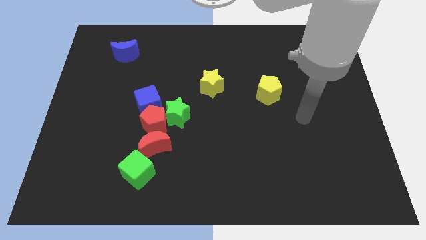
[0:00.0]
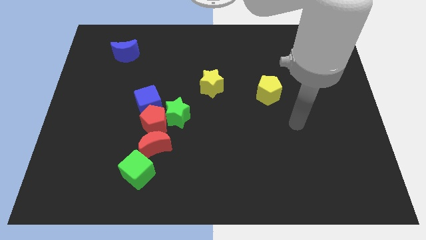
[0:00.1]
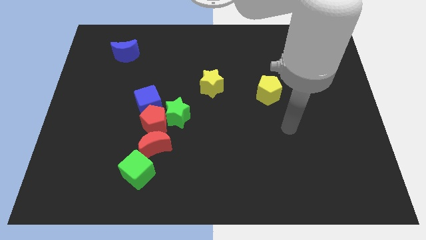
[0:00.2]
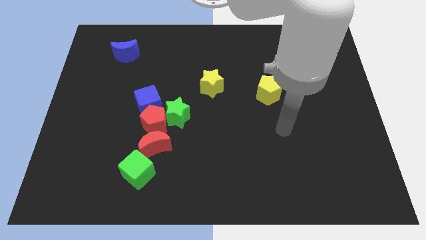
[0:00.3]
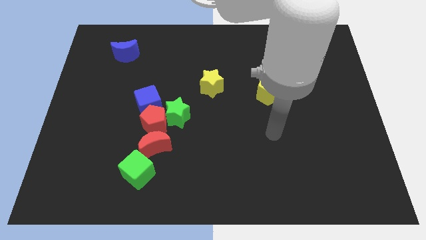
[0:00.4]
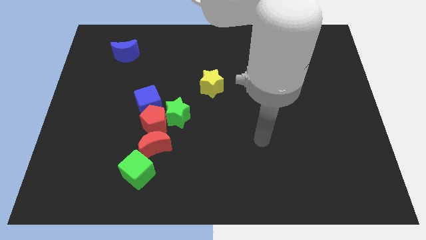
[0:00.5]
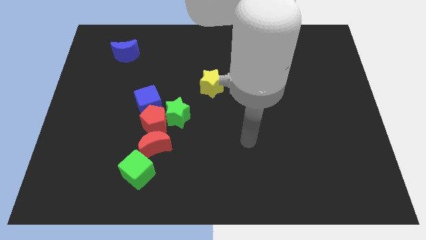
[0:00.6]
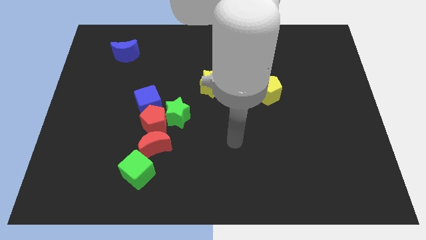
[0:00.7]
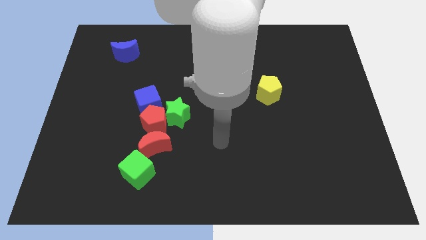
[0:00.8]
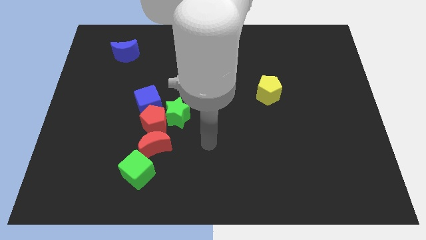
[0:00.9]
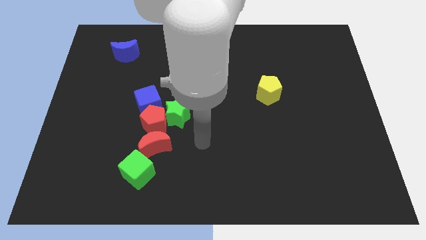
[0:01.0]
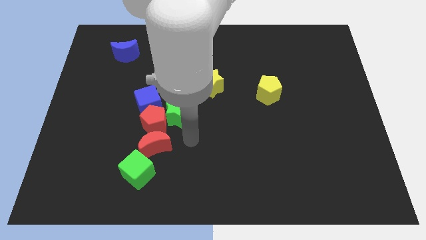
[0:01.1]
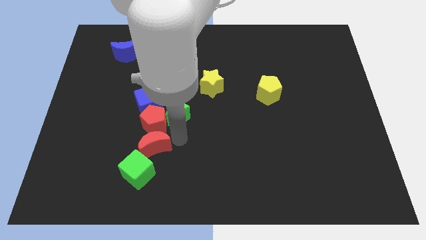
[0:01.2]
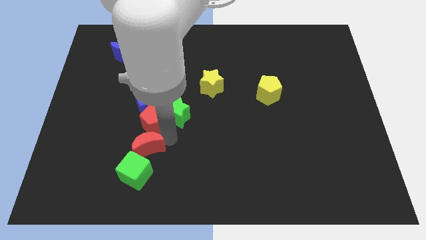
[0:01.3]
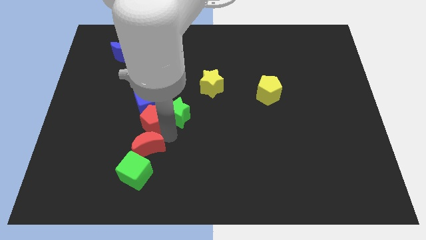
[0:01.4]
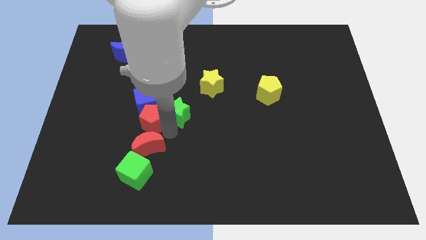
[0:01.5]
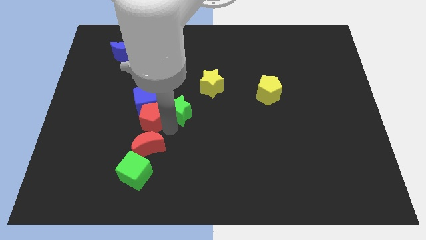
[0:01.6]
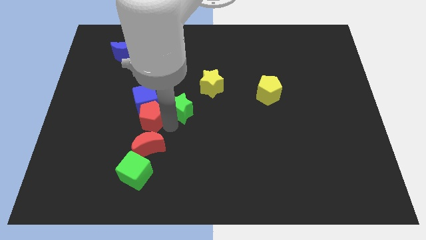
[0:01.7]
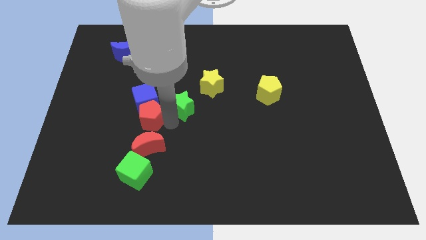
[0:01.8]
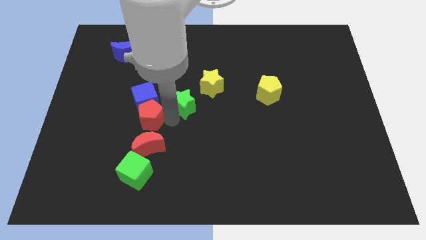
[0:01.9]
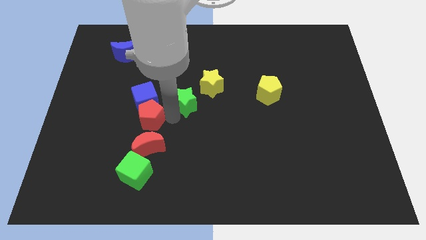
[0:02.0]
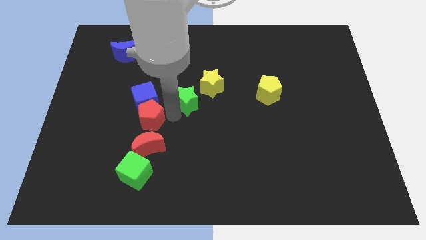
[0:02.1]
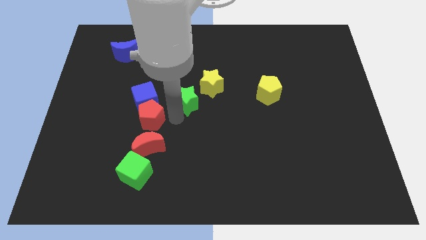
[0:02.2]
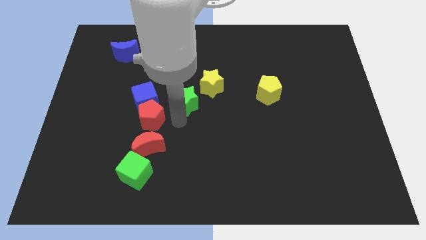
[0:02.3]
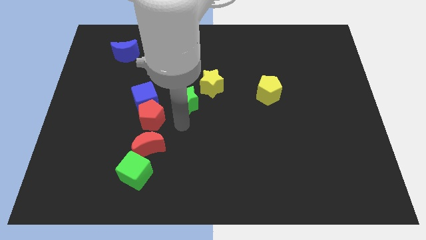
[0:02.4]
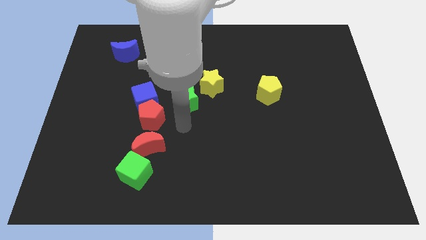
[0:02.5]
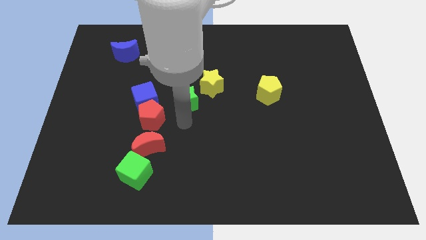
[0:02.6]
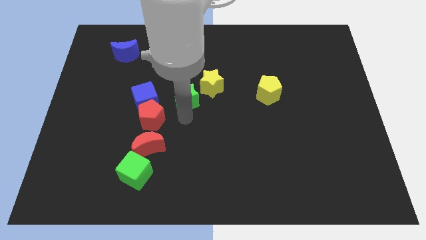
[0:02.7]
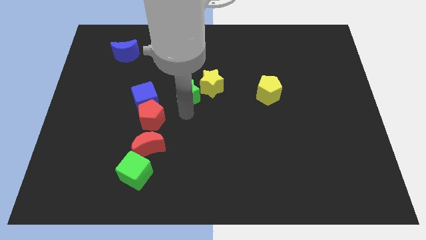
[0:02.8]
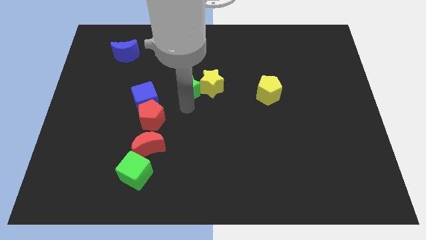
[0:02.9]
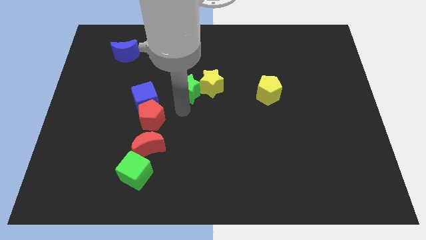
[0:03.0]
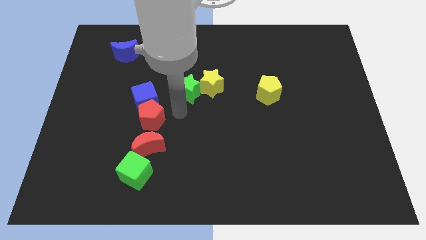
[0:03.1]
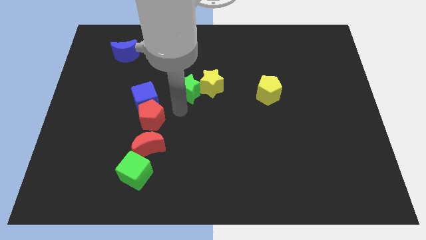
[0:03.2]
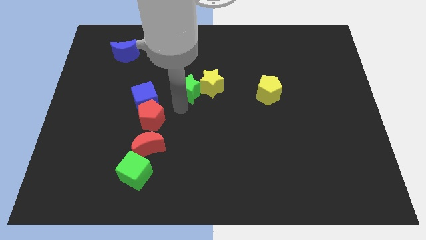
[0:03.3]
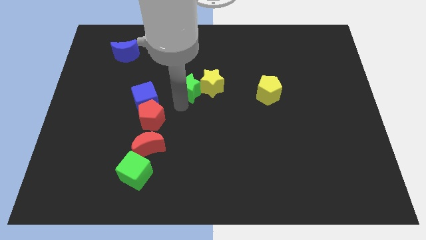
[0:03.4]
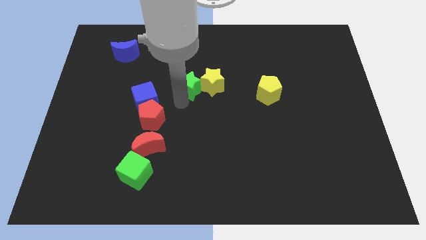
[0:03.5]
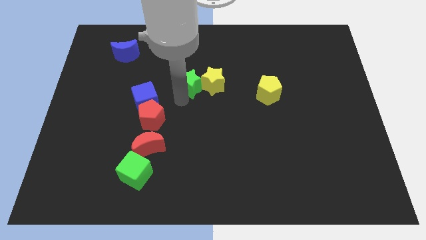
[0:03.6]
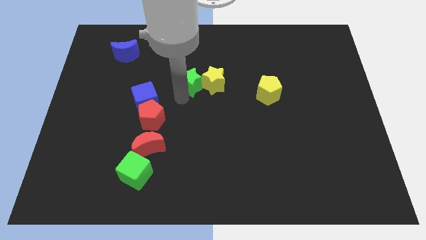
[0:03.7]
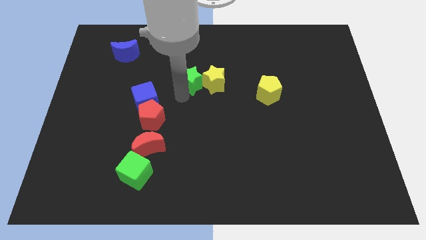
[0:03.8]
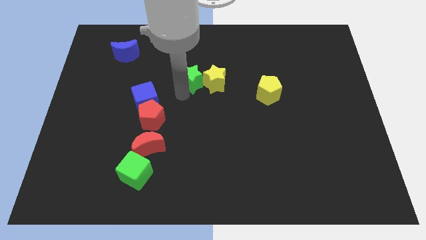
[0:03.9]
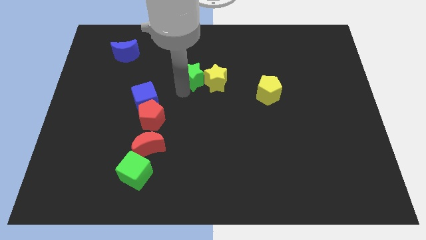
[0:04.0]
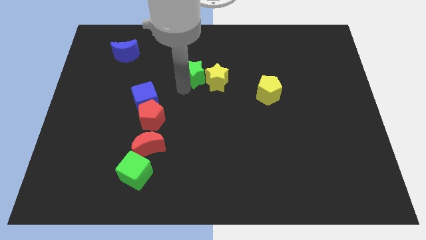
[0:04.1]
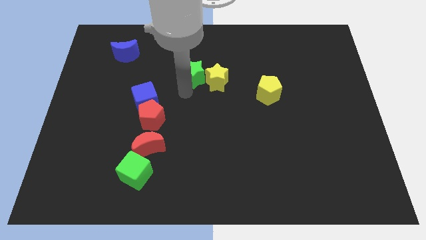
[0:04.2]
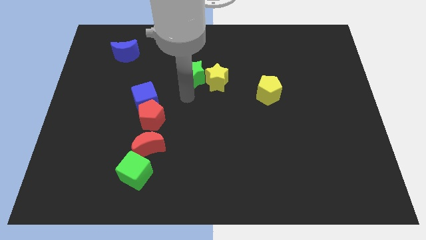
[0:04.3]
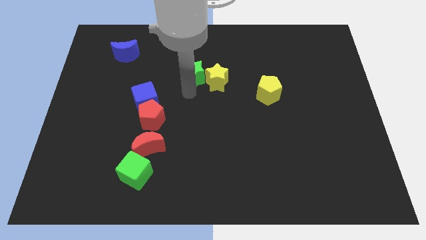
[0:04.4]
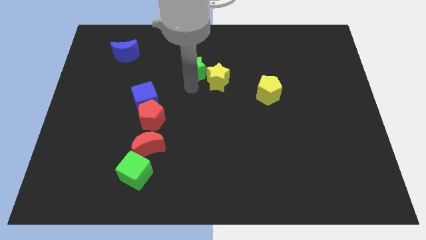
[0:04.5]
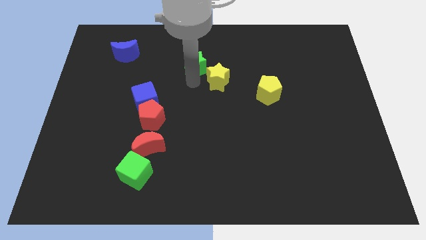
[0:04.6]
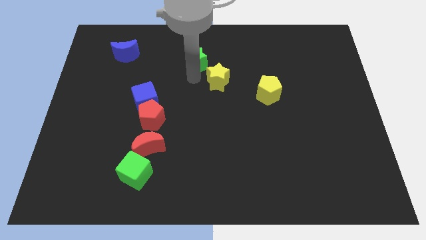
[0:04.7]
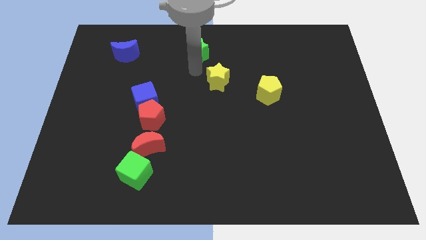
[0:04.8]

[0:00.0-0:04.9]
put the green star to the top side

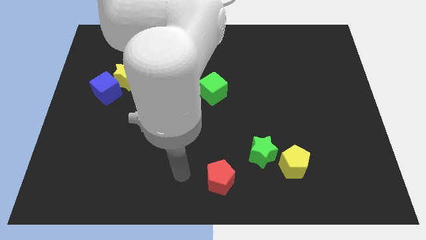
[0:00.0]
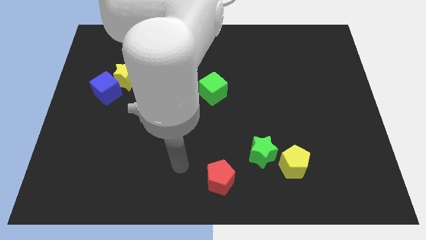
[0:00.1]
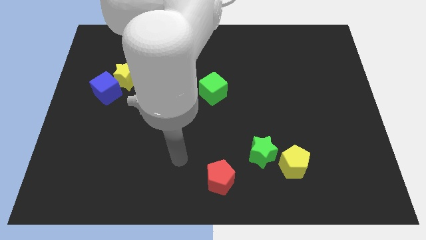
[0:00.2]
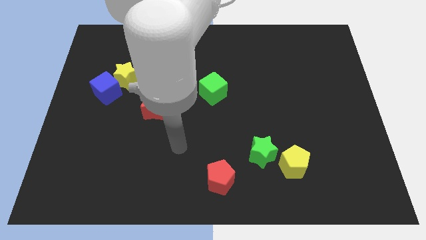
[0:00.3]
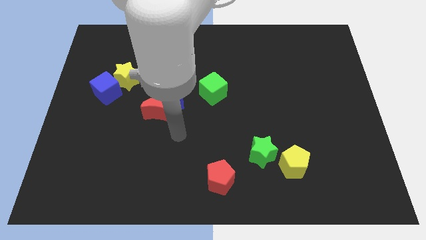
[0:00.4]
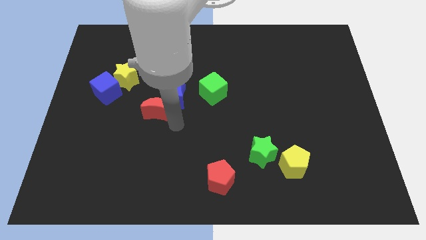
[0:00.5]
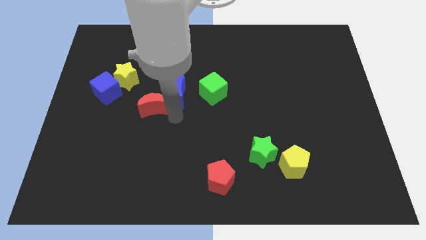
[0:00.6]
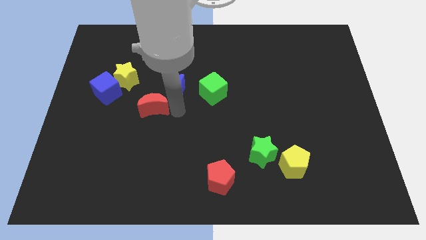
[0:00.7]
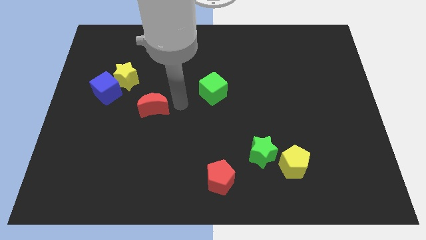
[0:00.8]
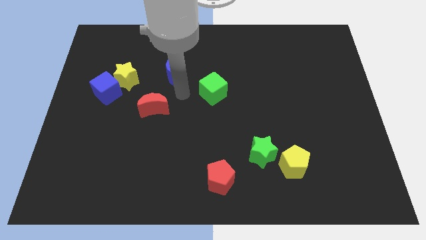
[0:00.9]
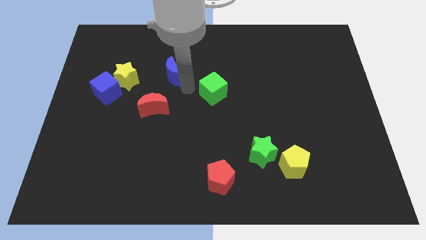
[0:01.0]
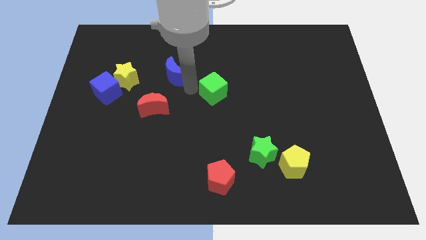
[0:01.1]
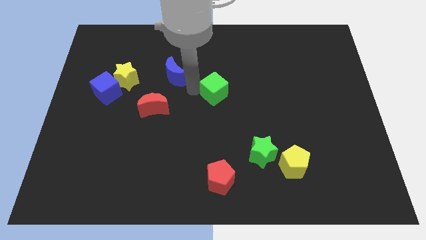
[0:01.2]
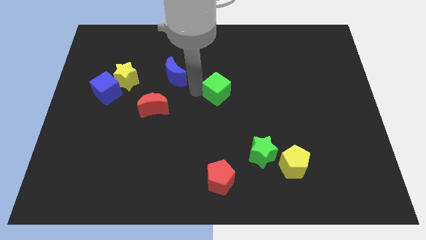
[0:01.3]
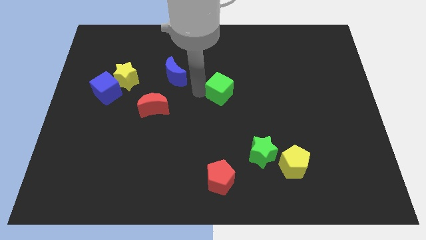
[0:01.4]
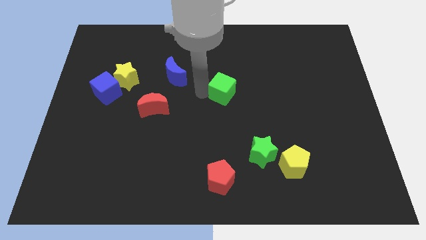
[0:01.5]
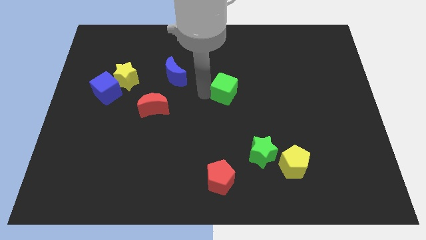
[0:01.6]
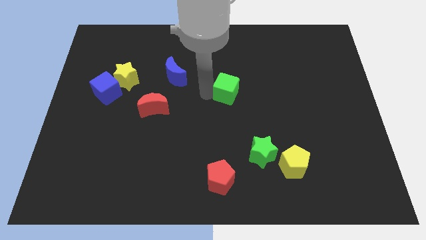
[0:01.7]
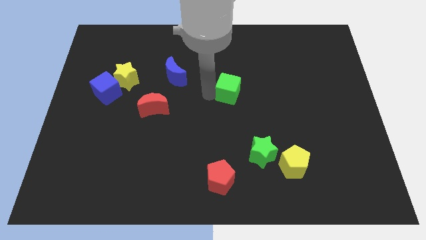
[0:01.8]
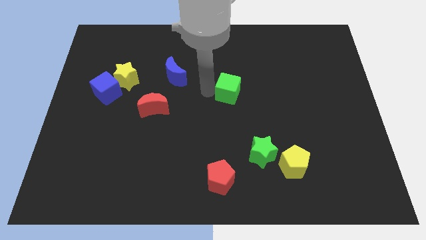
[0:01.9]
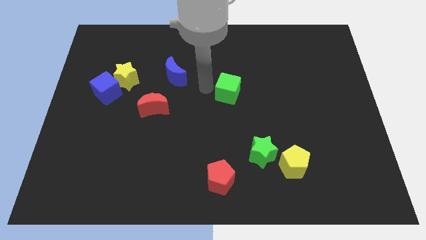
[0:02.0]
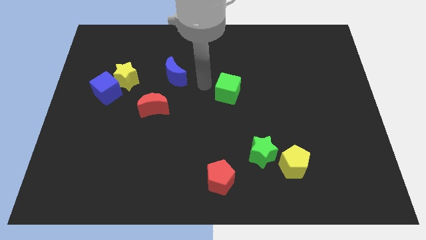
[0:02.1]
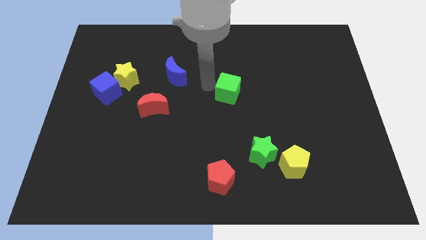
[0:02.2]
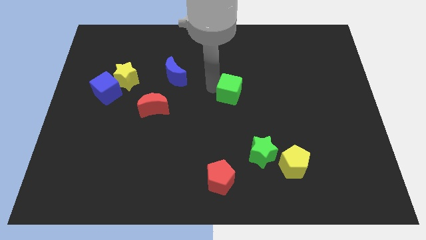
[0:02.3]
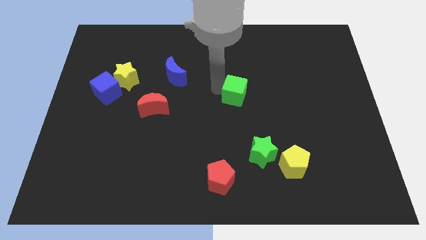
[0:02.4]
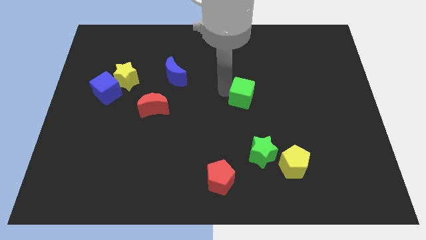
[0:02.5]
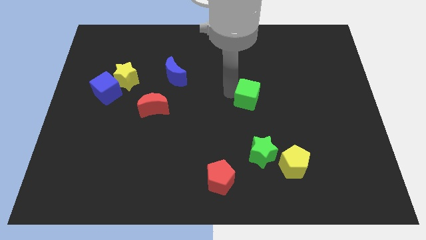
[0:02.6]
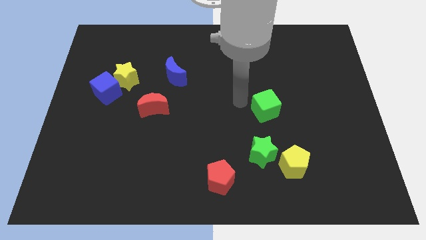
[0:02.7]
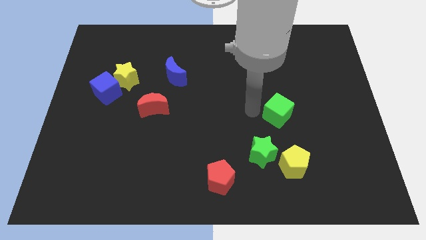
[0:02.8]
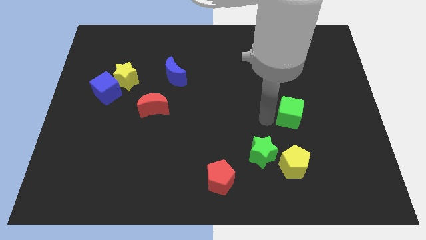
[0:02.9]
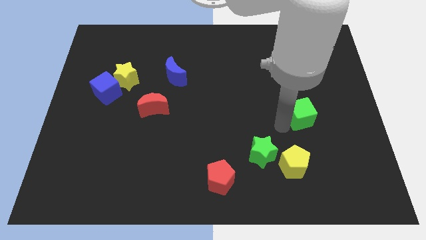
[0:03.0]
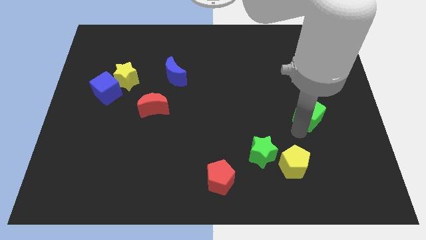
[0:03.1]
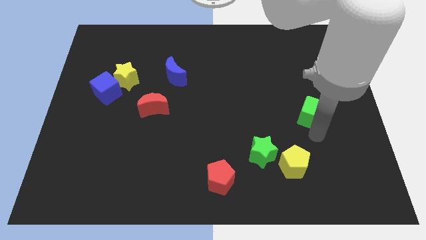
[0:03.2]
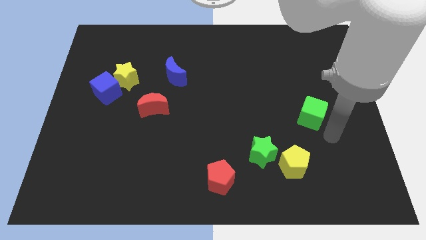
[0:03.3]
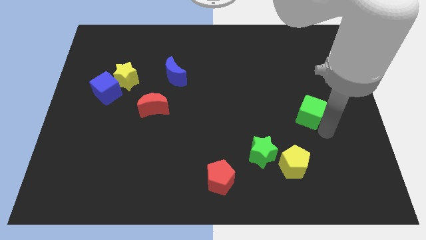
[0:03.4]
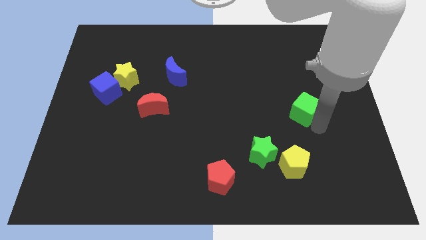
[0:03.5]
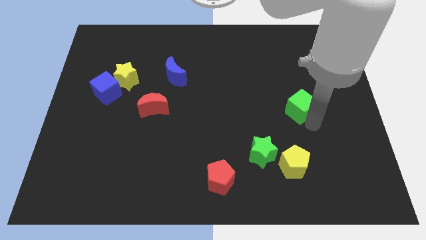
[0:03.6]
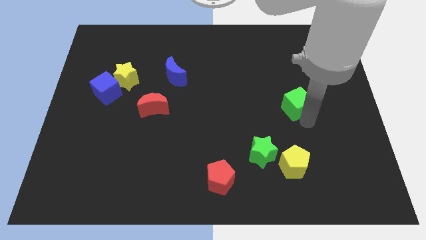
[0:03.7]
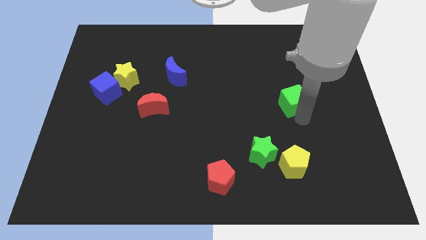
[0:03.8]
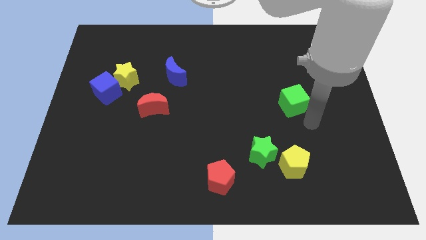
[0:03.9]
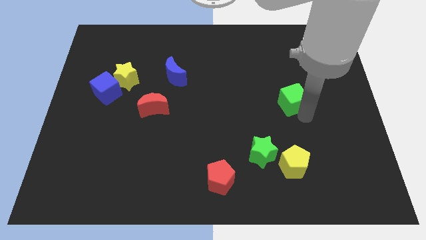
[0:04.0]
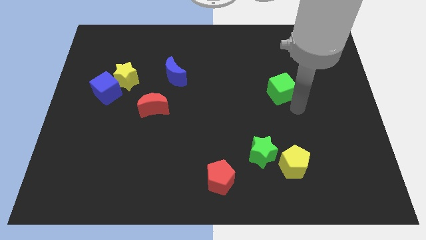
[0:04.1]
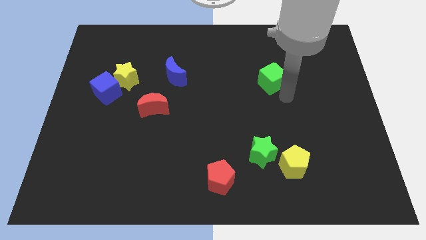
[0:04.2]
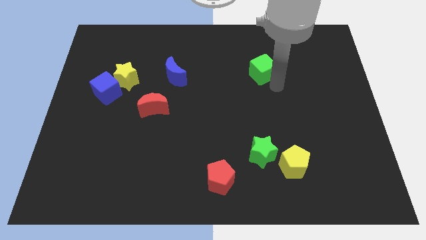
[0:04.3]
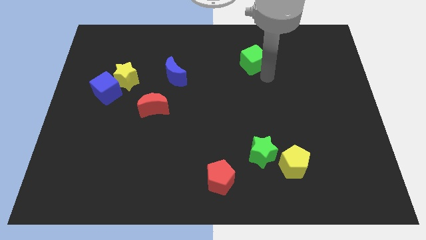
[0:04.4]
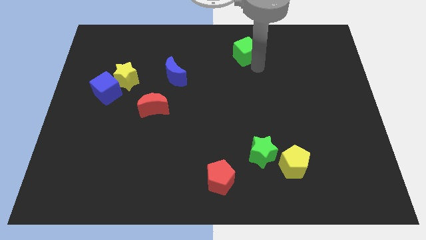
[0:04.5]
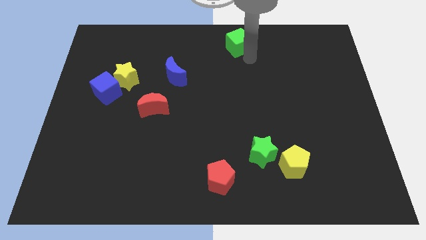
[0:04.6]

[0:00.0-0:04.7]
put the green cube to the top side
